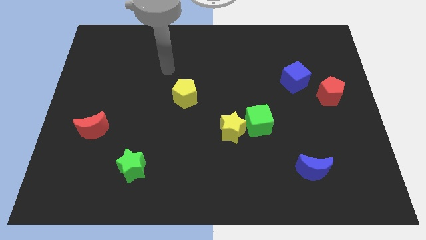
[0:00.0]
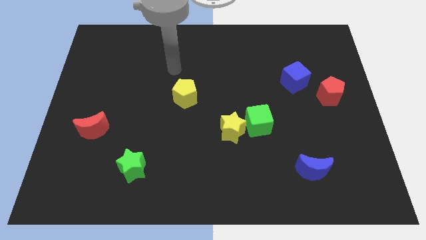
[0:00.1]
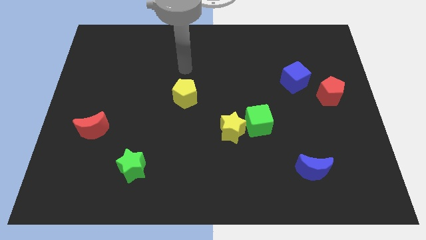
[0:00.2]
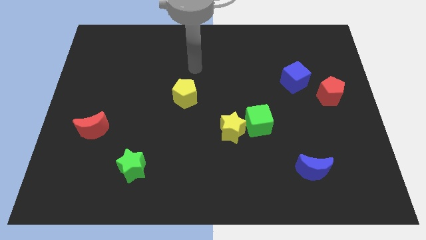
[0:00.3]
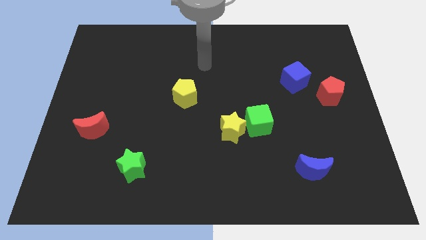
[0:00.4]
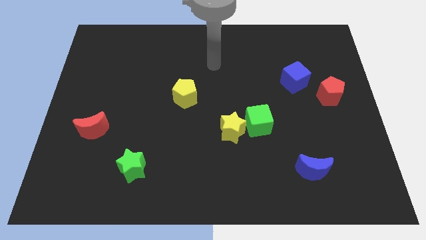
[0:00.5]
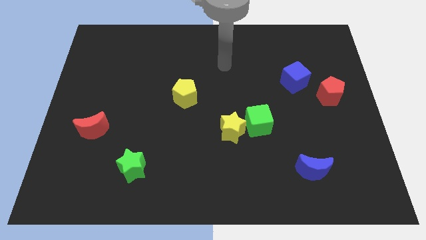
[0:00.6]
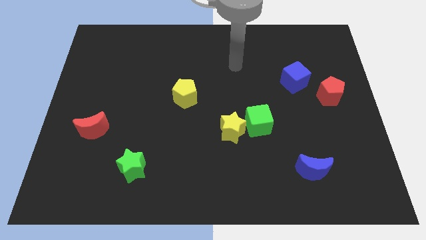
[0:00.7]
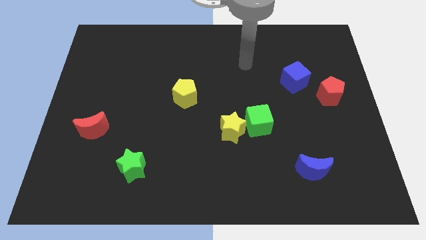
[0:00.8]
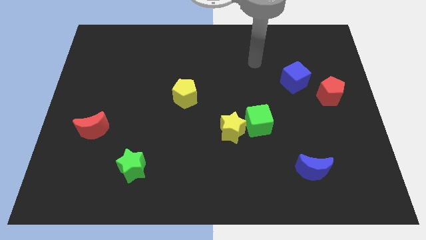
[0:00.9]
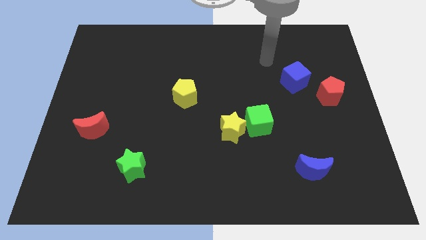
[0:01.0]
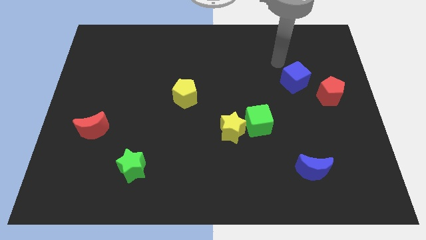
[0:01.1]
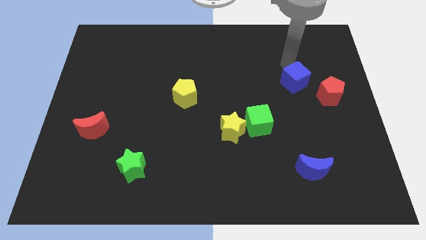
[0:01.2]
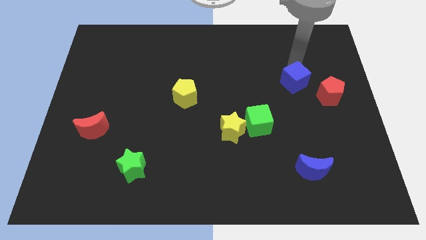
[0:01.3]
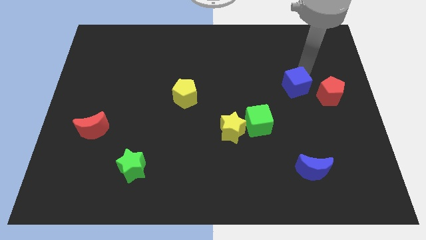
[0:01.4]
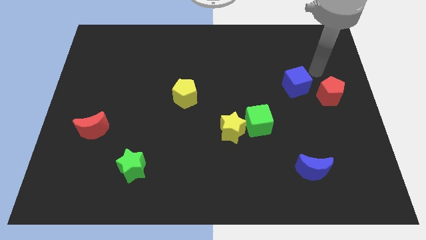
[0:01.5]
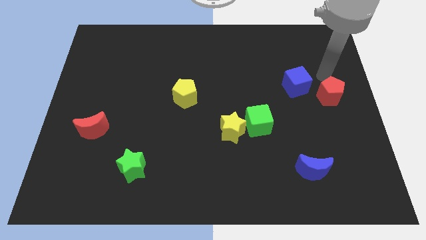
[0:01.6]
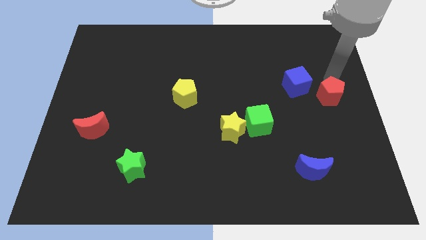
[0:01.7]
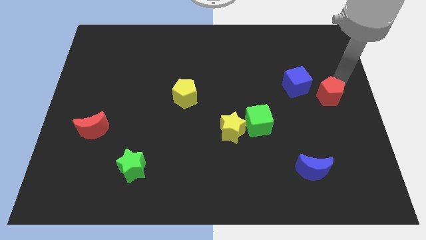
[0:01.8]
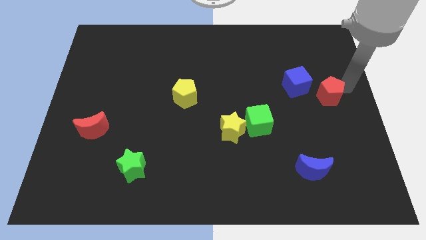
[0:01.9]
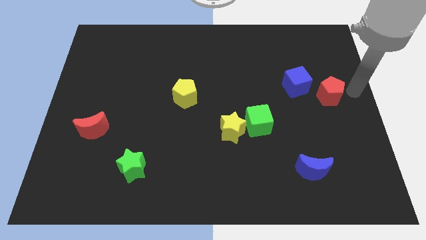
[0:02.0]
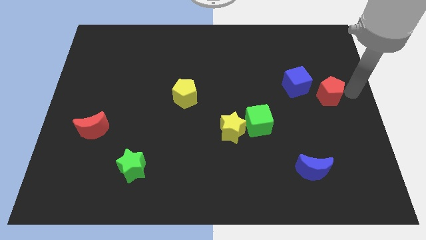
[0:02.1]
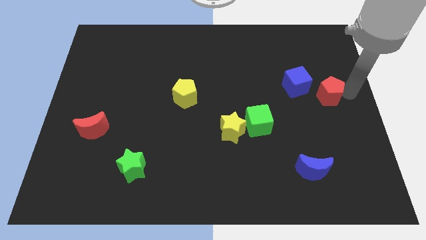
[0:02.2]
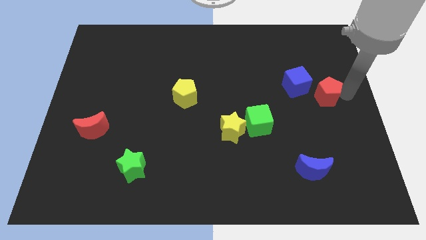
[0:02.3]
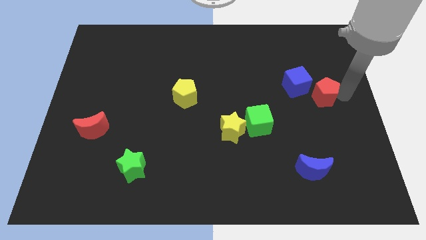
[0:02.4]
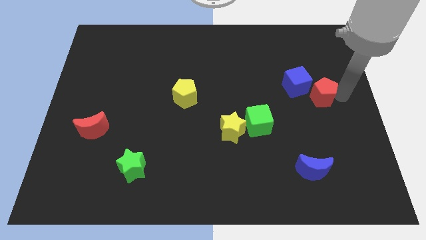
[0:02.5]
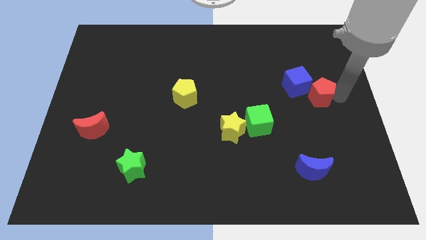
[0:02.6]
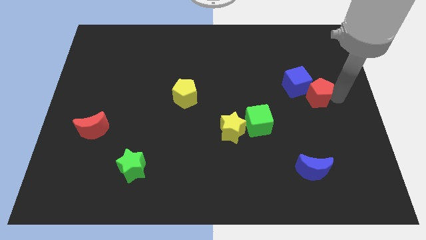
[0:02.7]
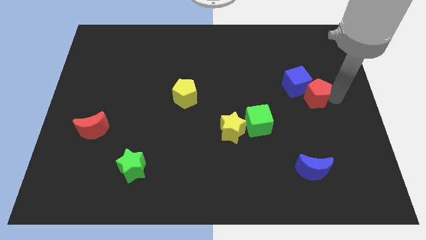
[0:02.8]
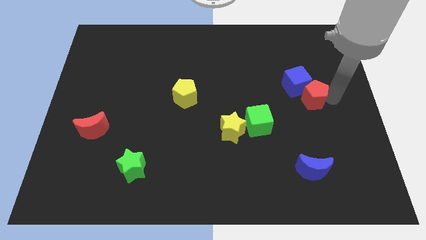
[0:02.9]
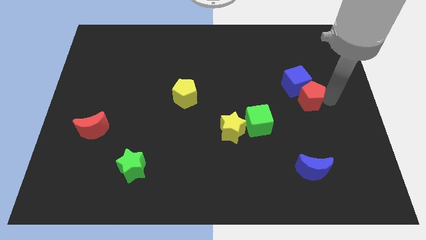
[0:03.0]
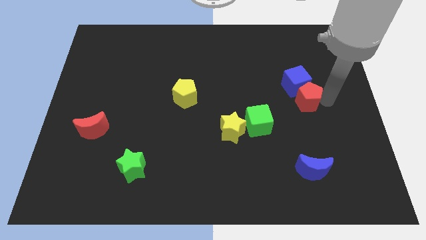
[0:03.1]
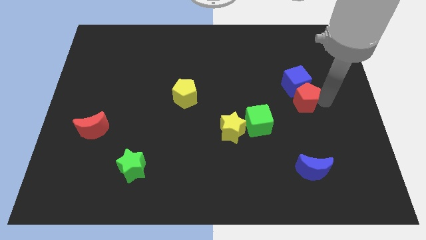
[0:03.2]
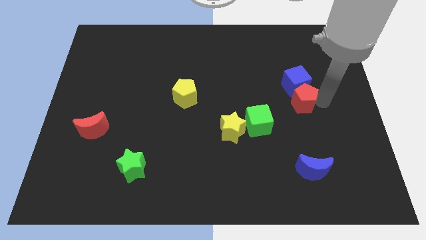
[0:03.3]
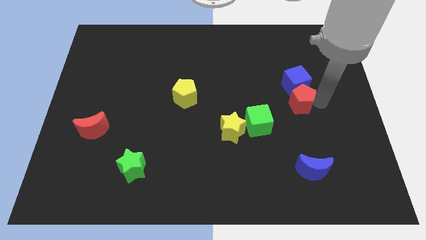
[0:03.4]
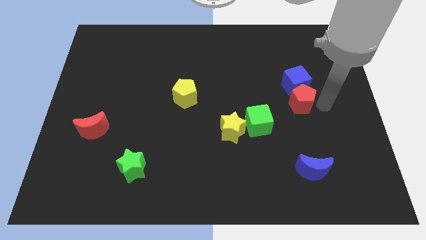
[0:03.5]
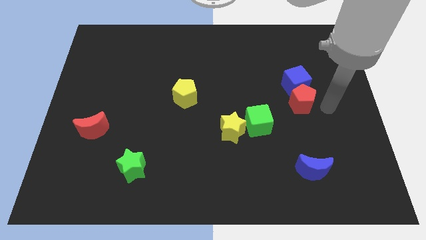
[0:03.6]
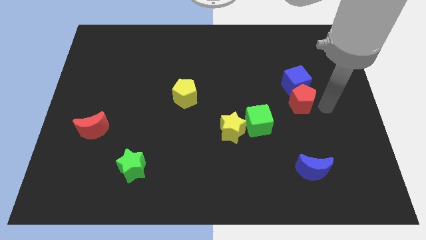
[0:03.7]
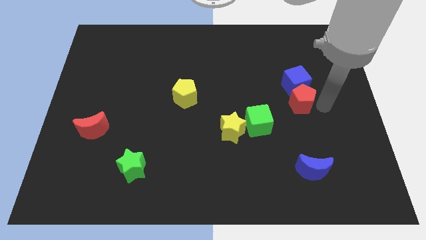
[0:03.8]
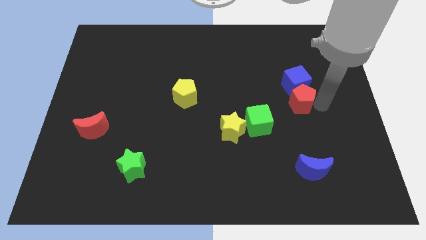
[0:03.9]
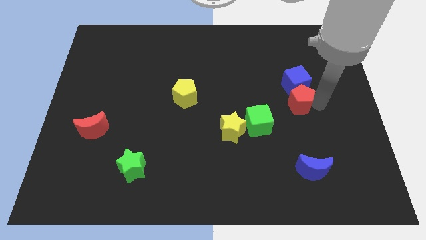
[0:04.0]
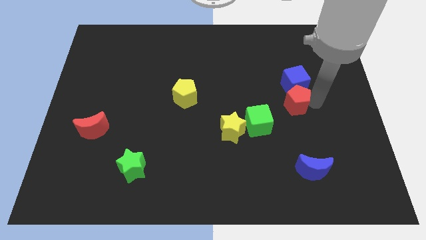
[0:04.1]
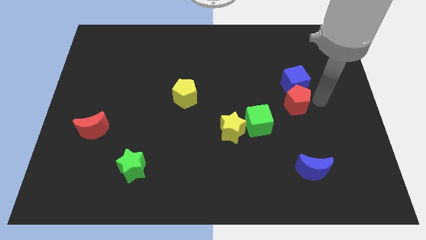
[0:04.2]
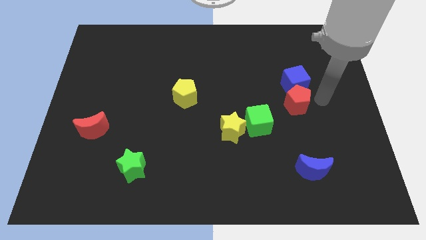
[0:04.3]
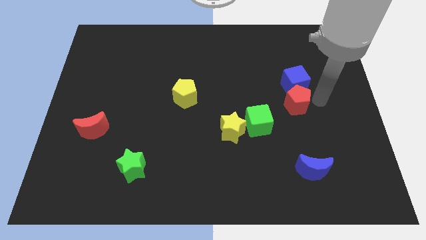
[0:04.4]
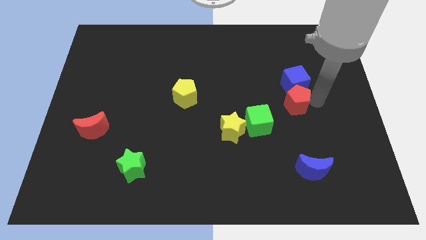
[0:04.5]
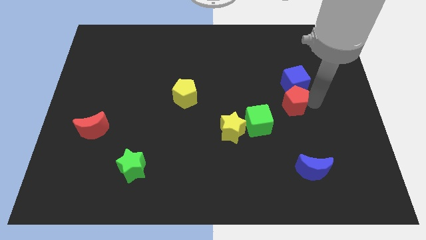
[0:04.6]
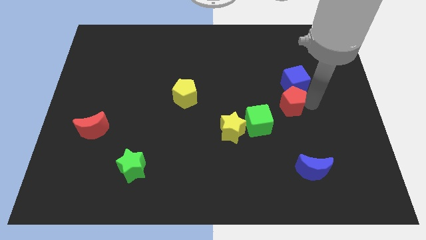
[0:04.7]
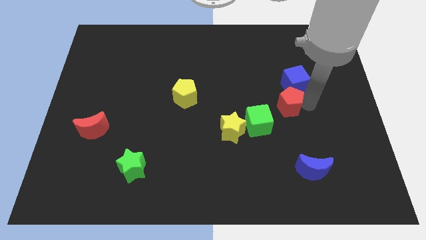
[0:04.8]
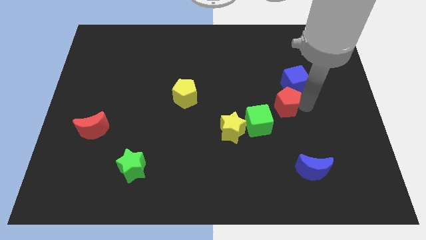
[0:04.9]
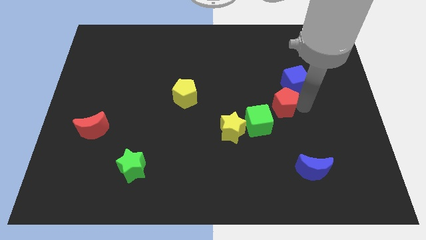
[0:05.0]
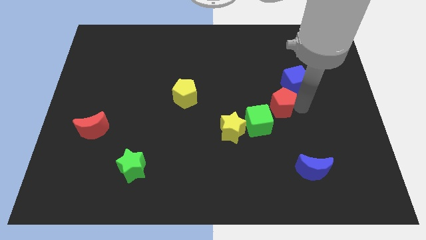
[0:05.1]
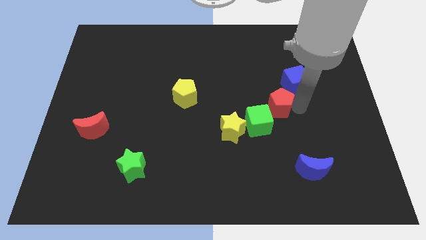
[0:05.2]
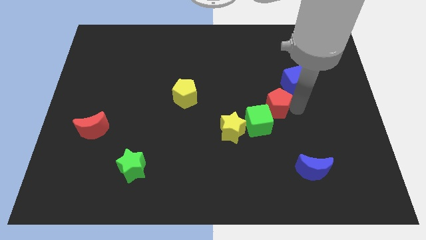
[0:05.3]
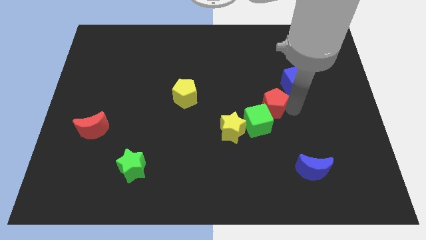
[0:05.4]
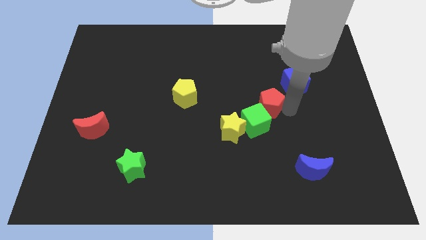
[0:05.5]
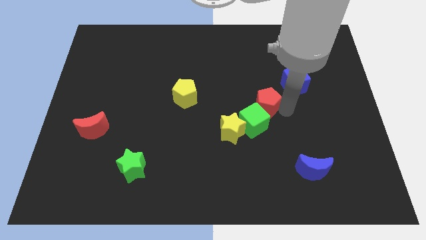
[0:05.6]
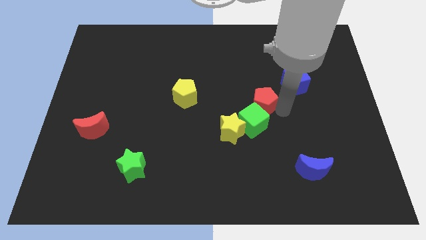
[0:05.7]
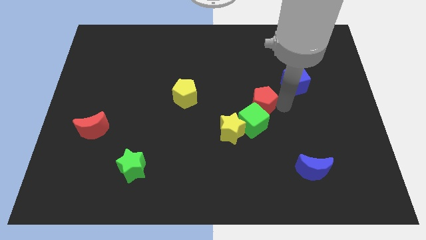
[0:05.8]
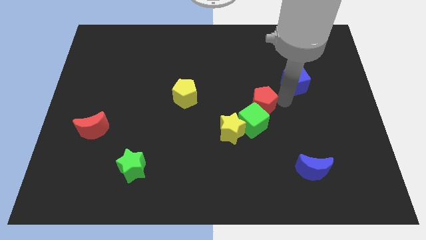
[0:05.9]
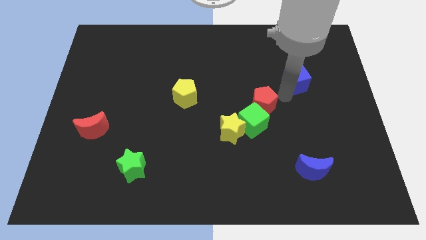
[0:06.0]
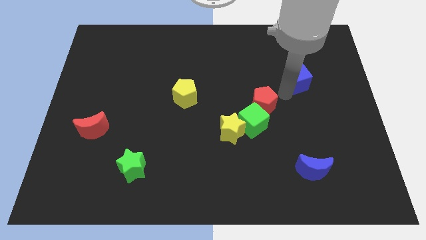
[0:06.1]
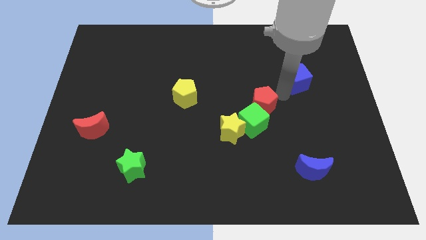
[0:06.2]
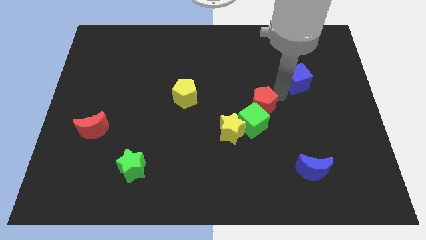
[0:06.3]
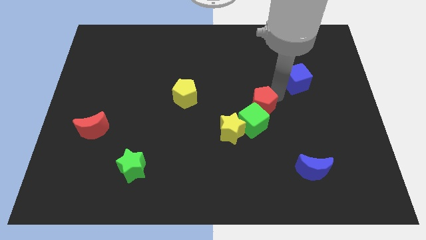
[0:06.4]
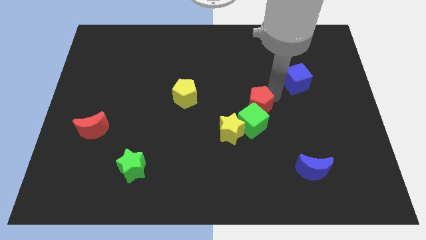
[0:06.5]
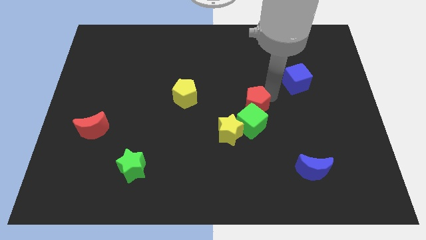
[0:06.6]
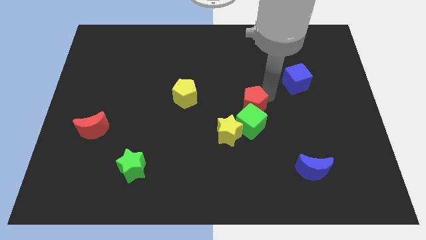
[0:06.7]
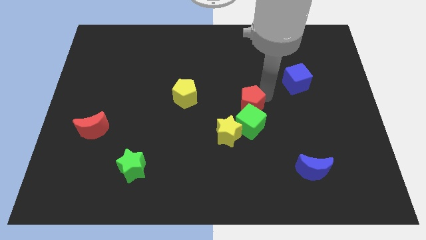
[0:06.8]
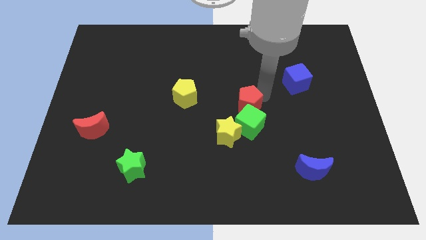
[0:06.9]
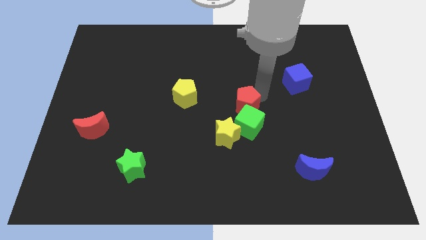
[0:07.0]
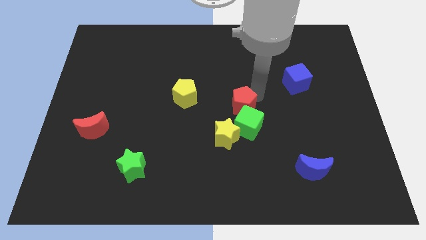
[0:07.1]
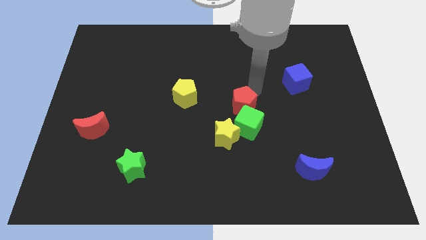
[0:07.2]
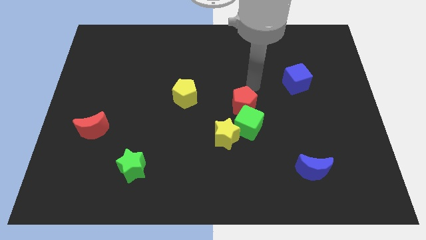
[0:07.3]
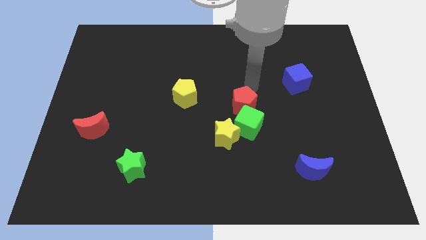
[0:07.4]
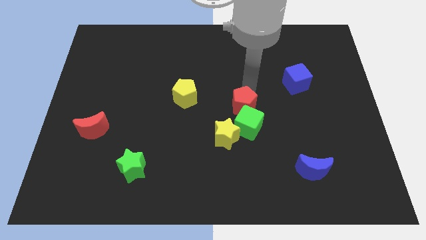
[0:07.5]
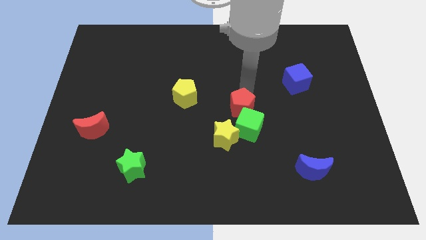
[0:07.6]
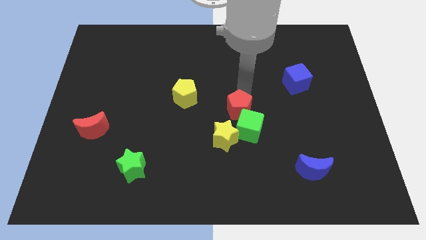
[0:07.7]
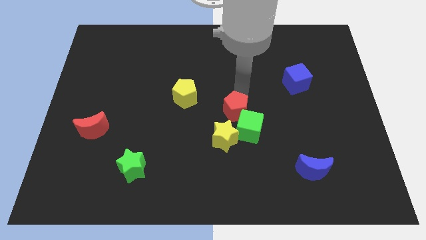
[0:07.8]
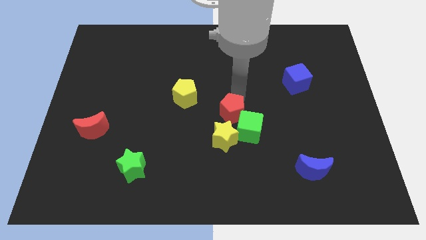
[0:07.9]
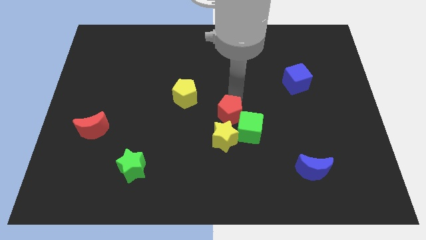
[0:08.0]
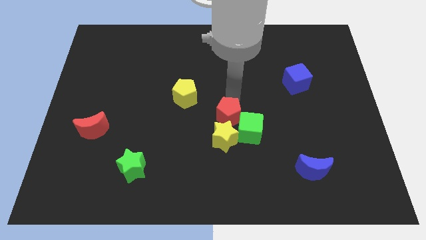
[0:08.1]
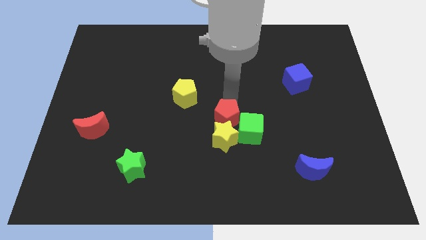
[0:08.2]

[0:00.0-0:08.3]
push the red pentagon towards the yellow star
